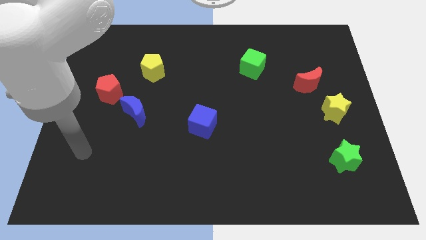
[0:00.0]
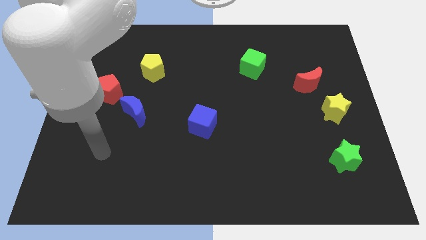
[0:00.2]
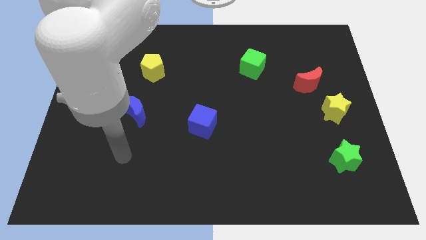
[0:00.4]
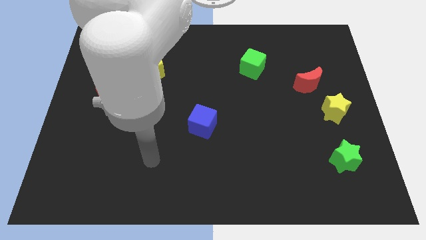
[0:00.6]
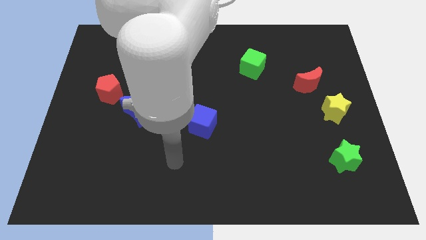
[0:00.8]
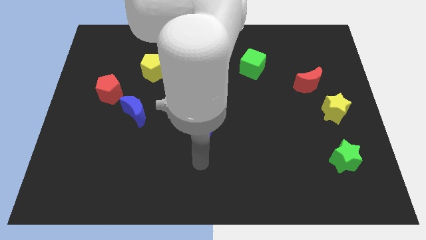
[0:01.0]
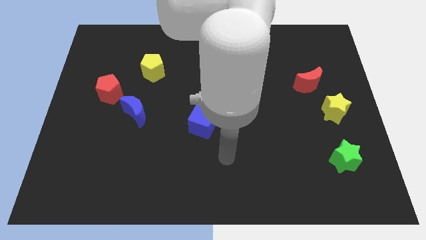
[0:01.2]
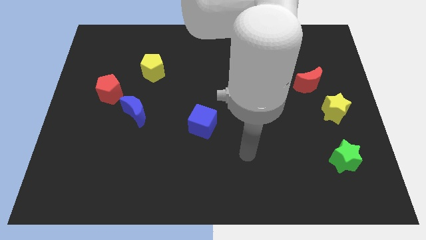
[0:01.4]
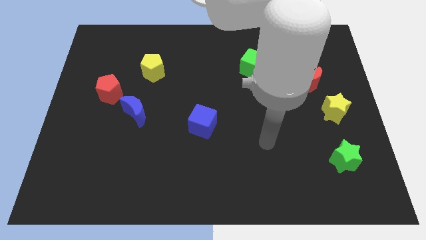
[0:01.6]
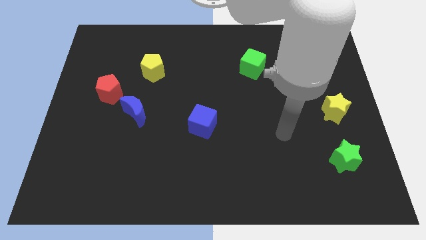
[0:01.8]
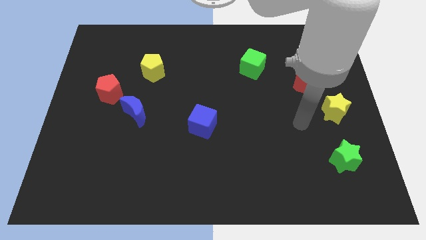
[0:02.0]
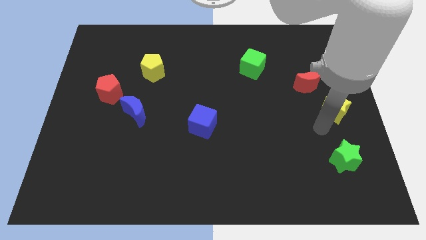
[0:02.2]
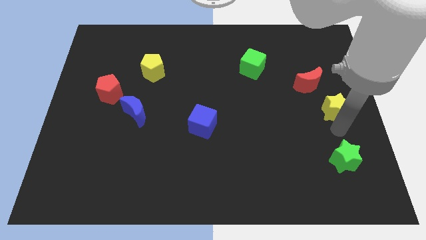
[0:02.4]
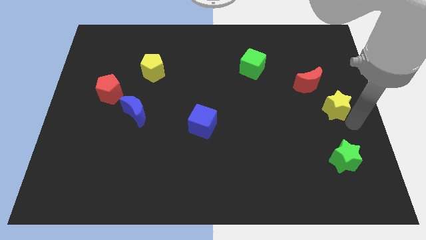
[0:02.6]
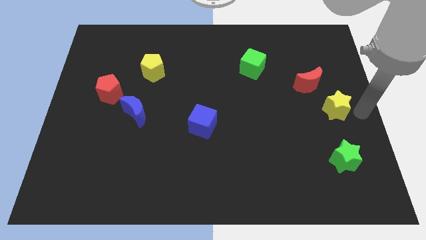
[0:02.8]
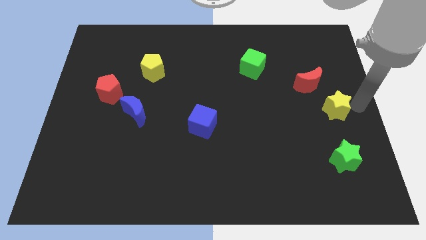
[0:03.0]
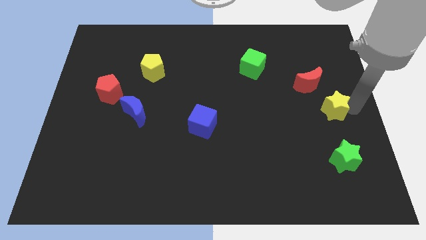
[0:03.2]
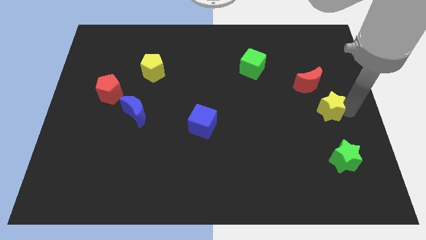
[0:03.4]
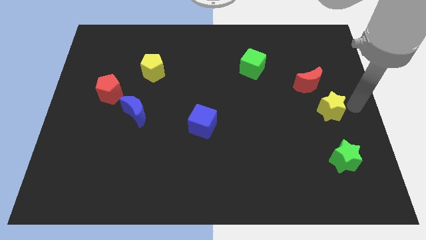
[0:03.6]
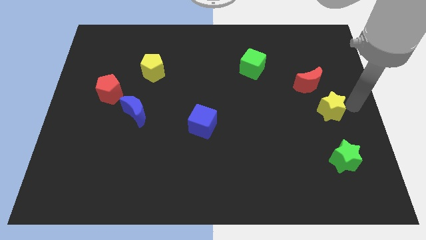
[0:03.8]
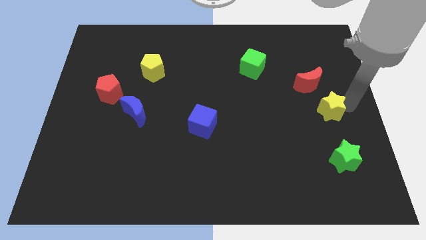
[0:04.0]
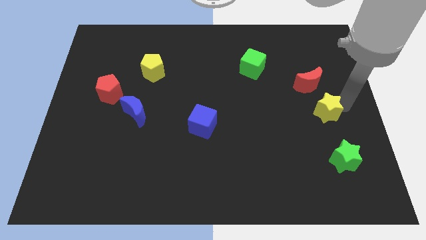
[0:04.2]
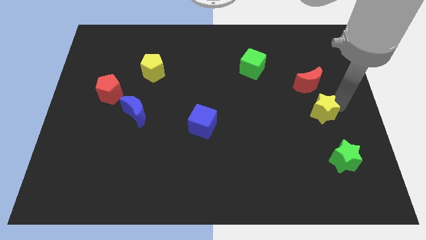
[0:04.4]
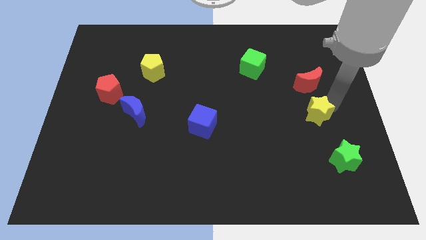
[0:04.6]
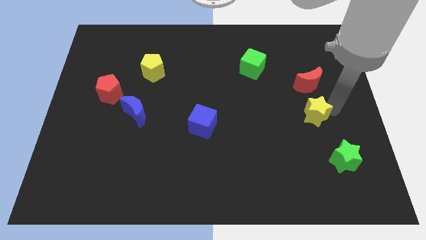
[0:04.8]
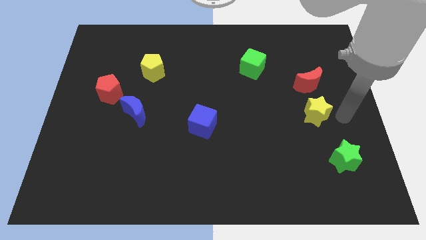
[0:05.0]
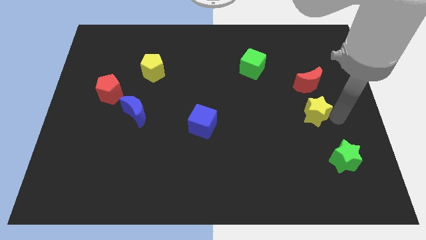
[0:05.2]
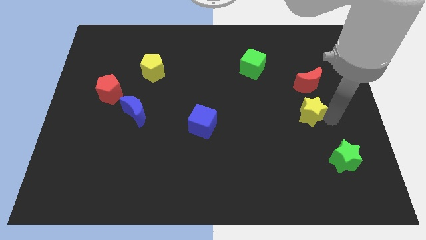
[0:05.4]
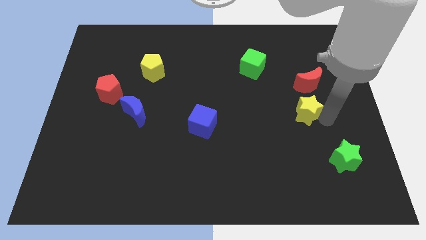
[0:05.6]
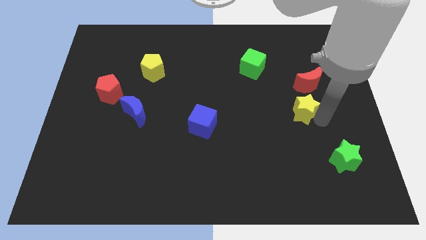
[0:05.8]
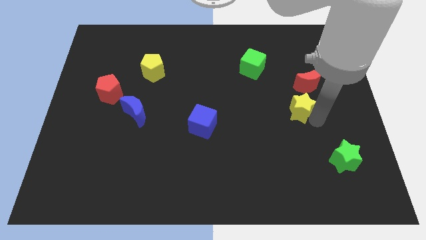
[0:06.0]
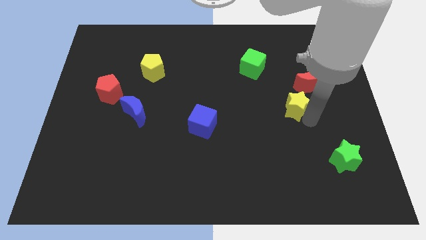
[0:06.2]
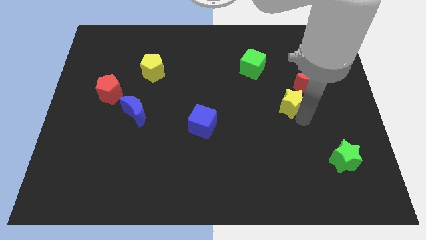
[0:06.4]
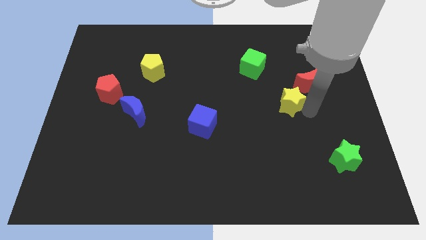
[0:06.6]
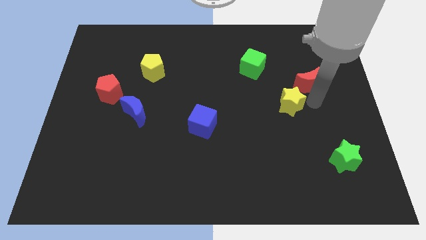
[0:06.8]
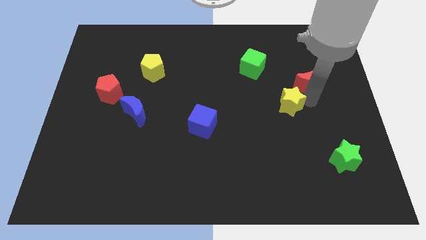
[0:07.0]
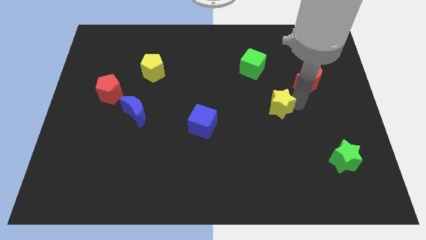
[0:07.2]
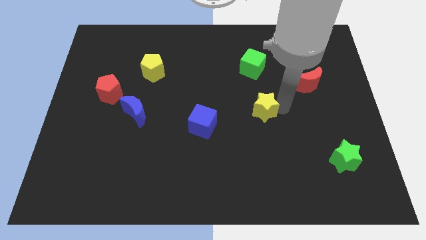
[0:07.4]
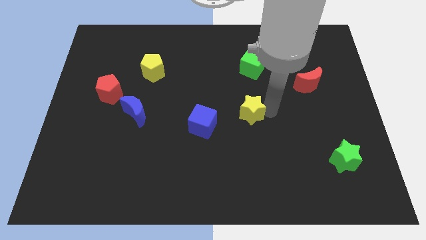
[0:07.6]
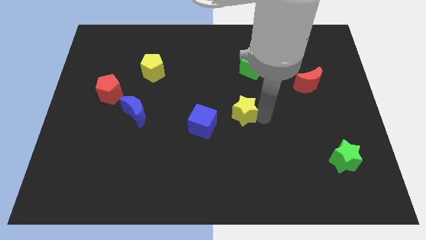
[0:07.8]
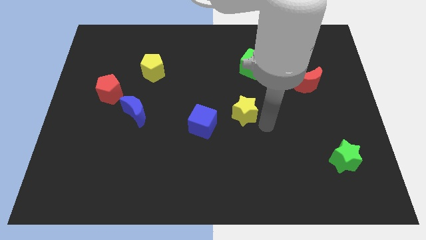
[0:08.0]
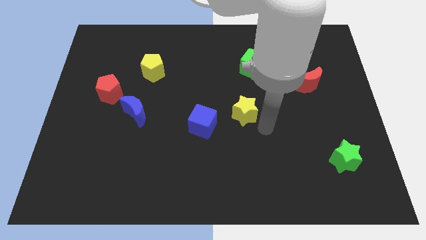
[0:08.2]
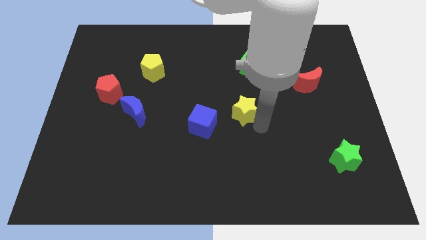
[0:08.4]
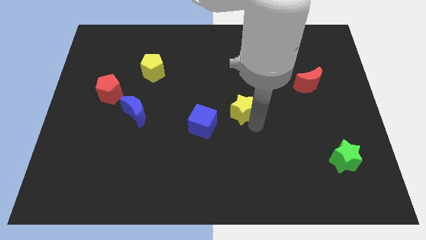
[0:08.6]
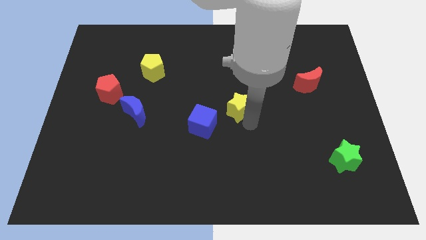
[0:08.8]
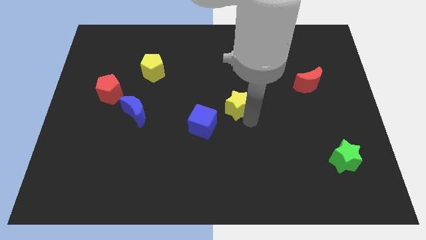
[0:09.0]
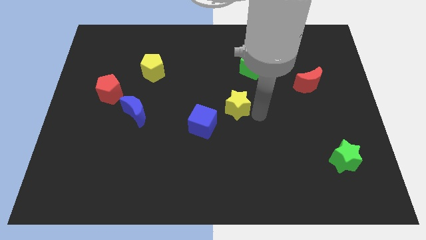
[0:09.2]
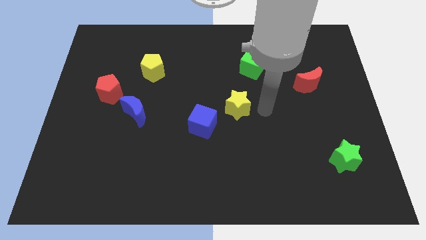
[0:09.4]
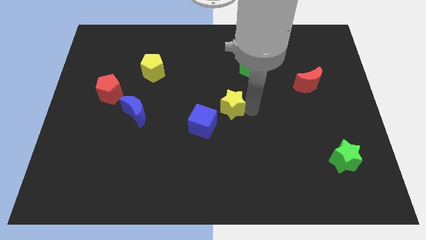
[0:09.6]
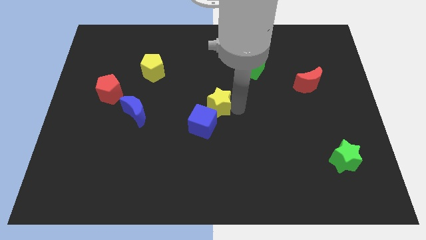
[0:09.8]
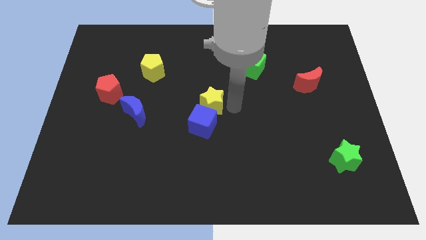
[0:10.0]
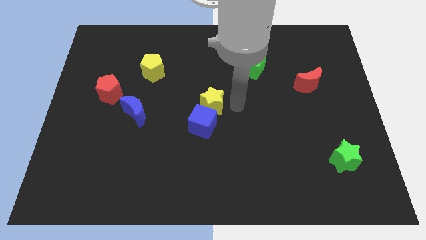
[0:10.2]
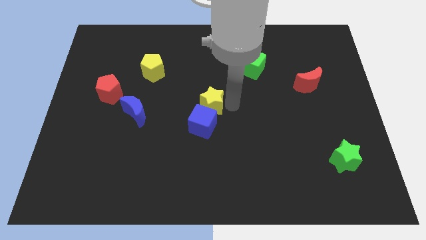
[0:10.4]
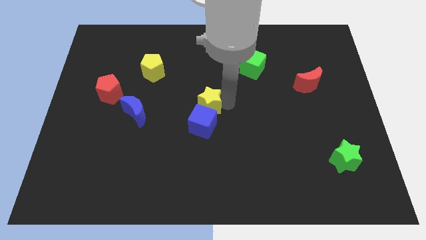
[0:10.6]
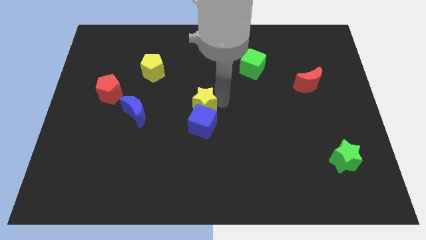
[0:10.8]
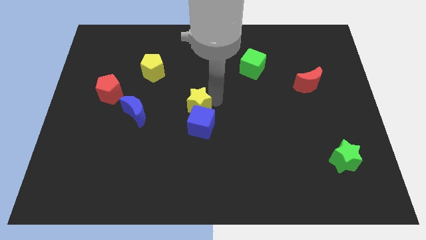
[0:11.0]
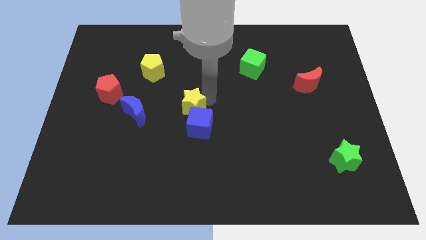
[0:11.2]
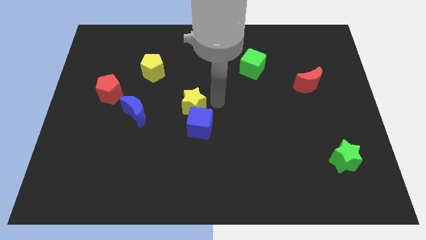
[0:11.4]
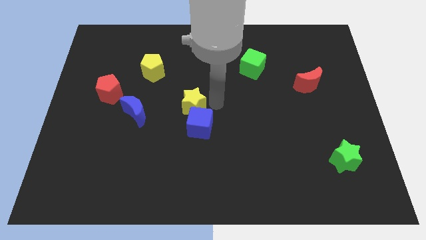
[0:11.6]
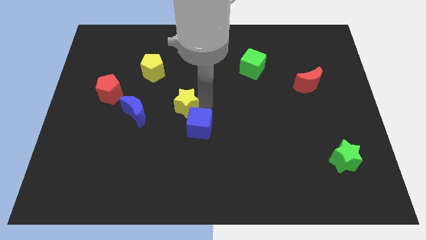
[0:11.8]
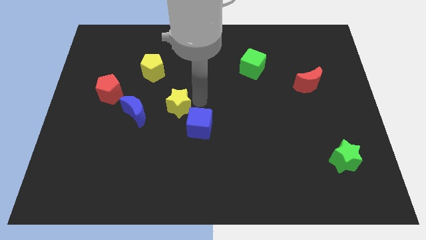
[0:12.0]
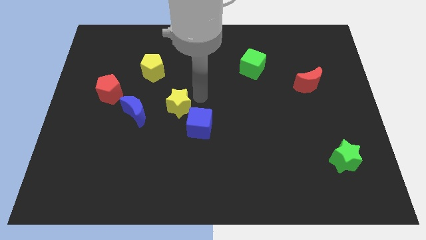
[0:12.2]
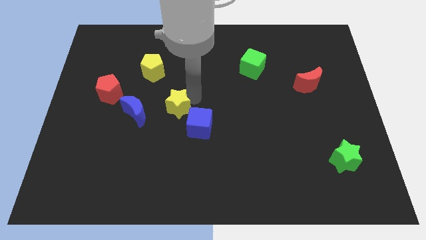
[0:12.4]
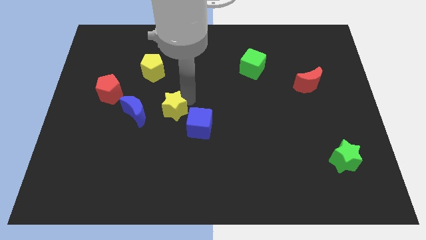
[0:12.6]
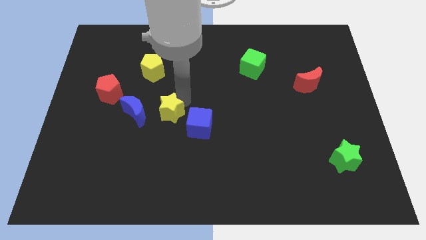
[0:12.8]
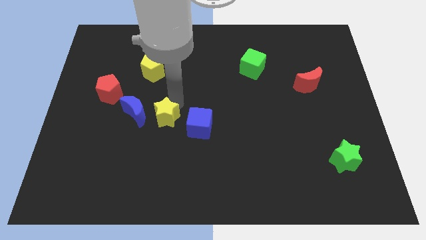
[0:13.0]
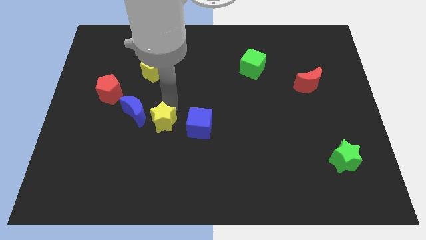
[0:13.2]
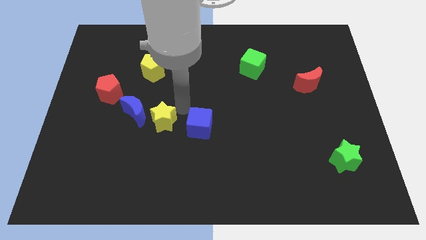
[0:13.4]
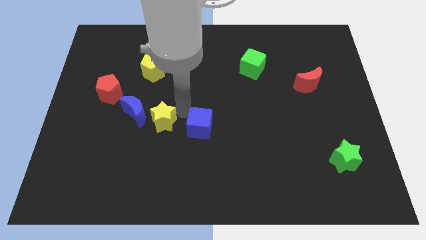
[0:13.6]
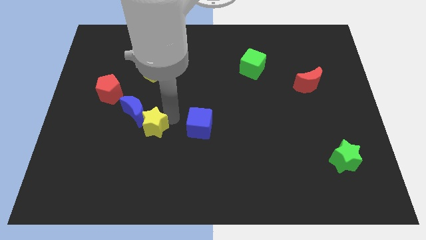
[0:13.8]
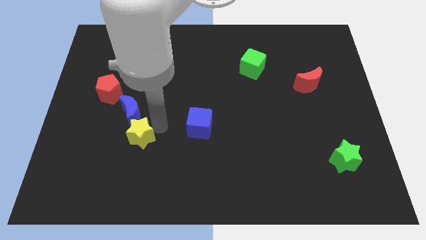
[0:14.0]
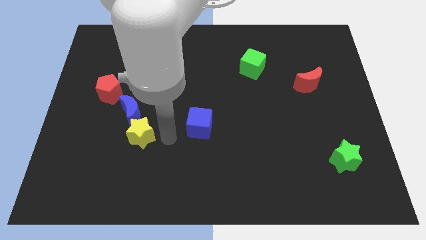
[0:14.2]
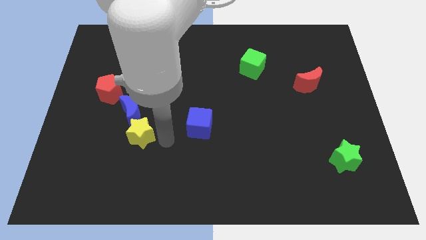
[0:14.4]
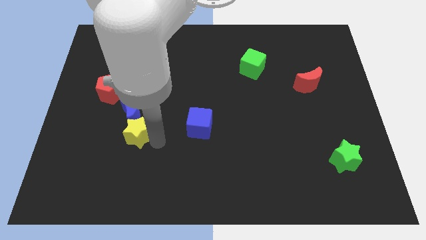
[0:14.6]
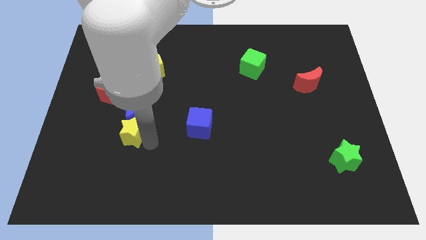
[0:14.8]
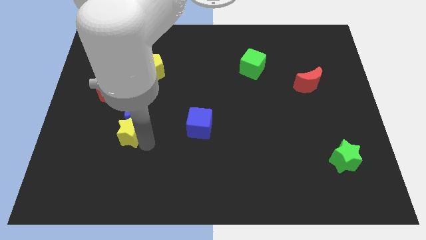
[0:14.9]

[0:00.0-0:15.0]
slide the yellow star to the bottom left of the blue moon
